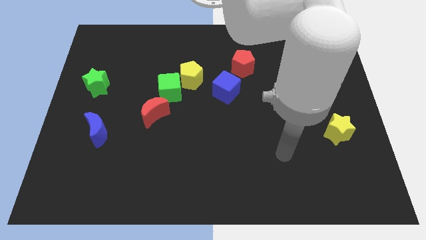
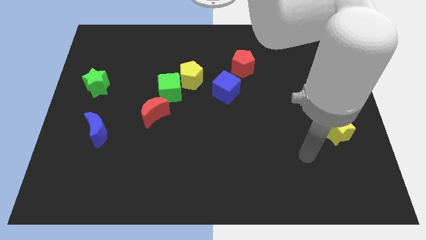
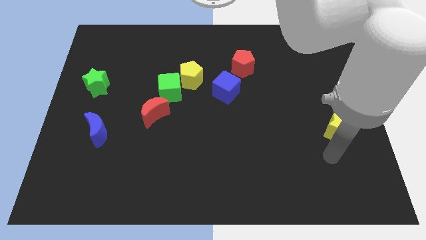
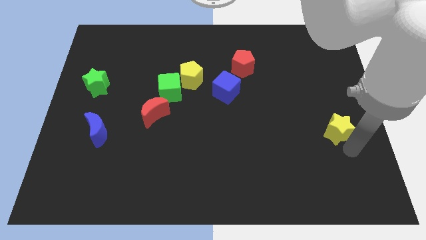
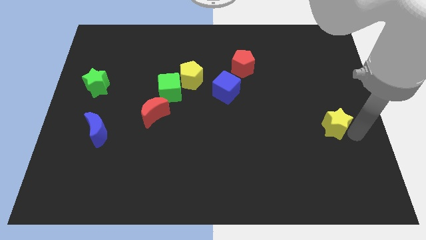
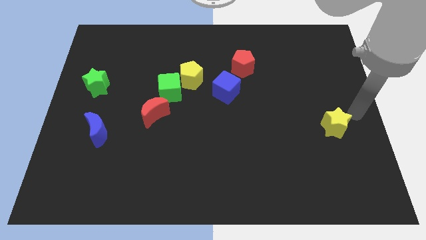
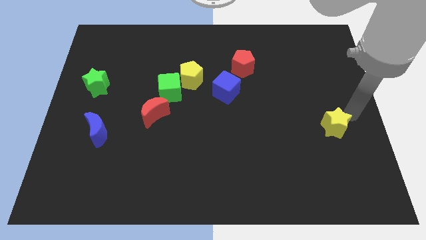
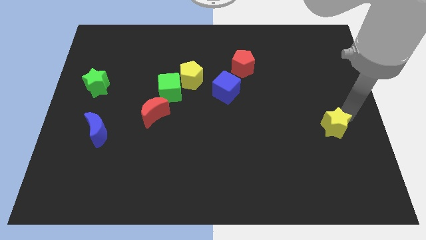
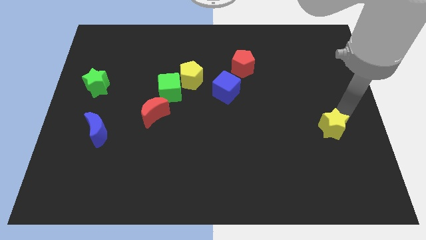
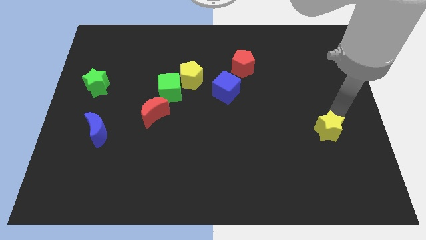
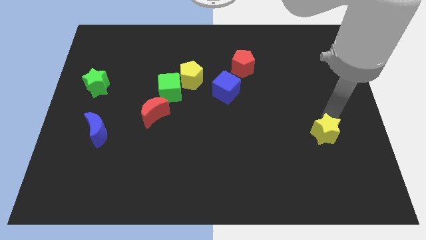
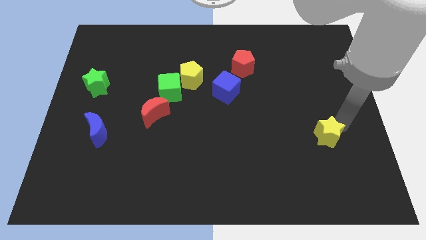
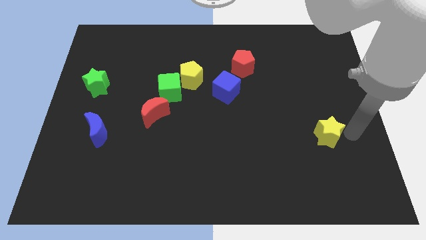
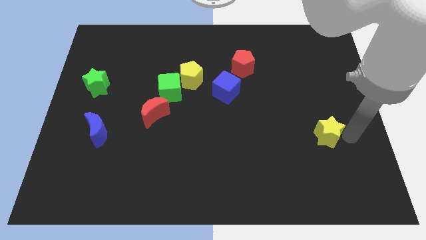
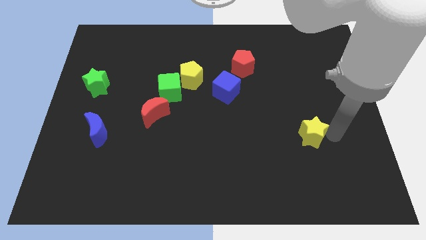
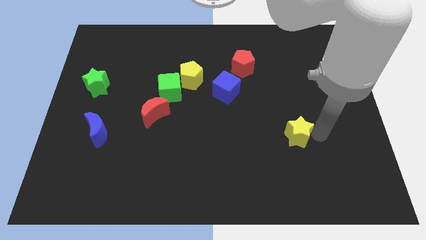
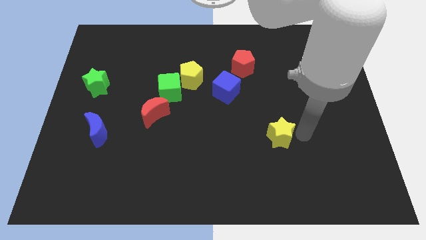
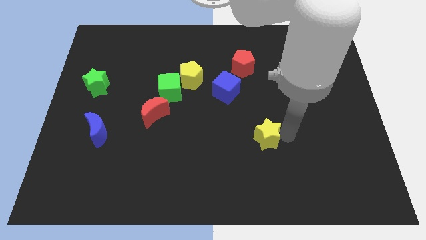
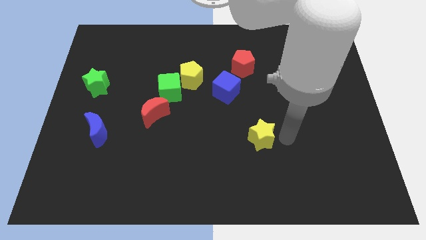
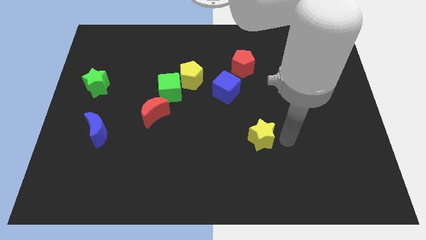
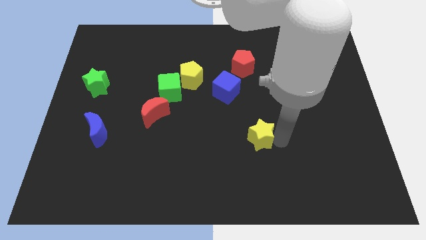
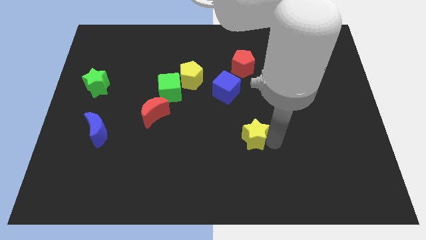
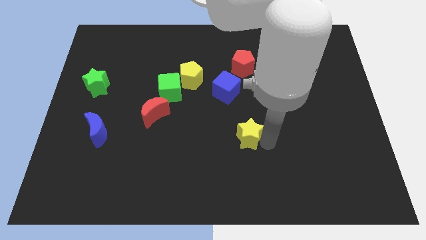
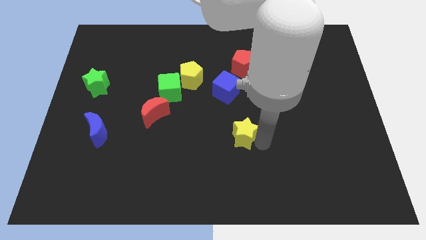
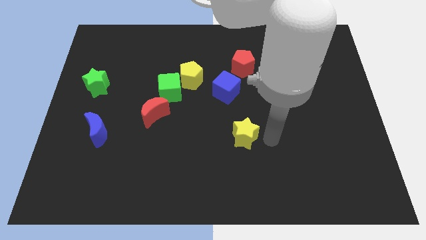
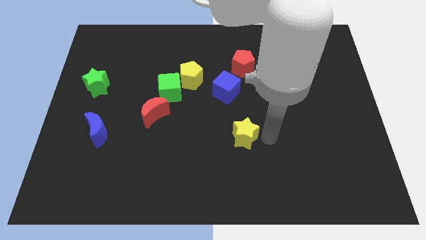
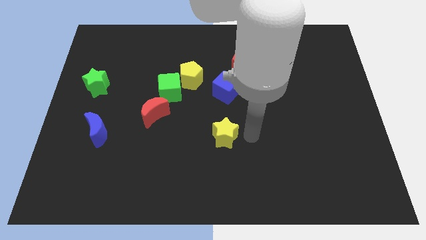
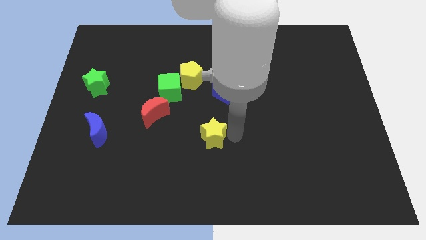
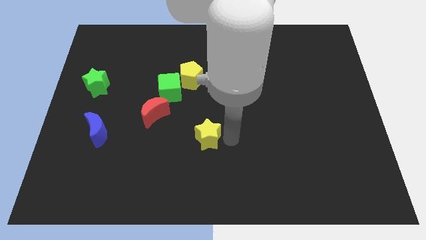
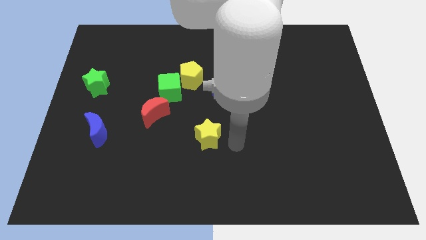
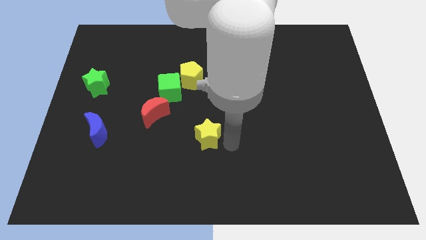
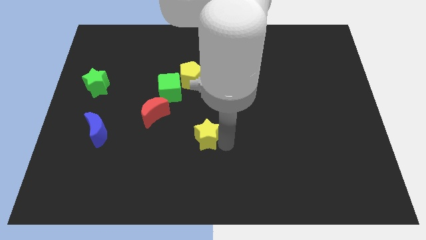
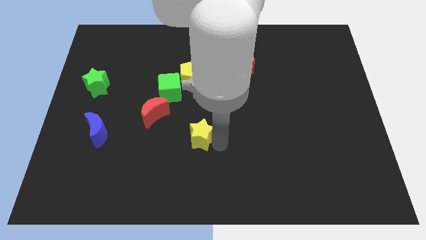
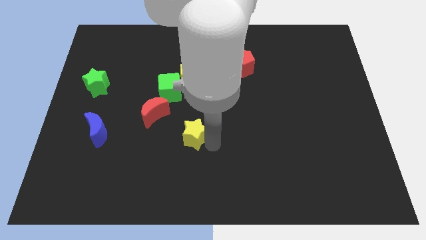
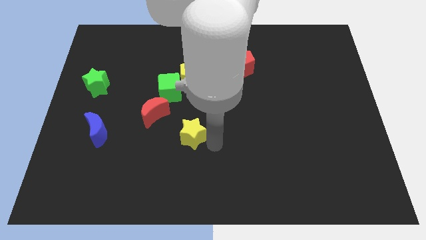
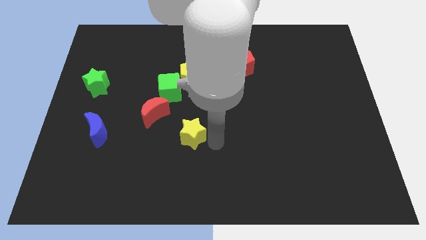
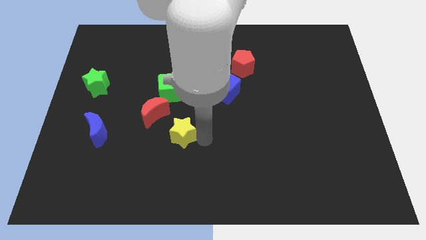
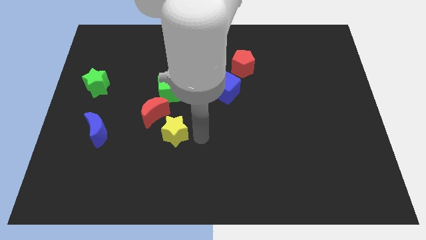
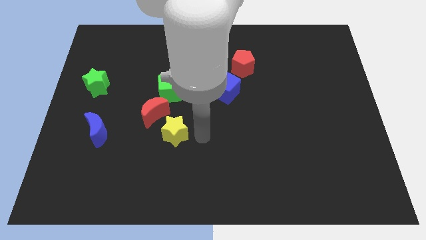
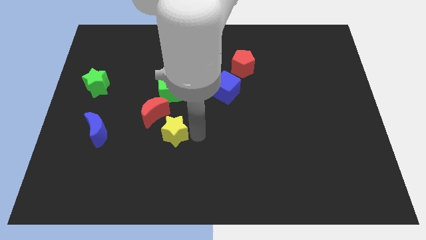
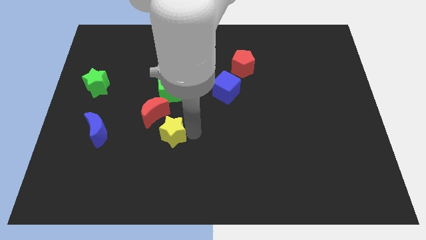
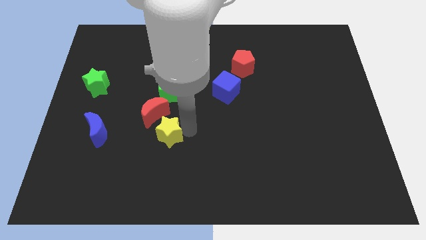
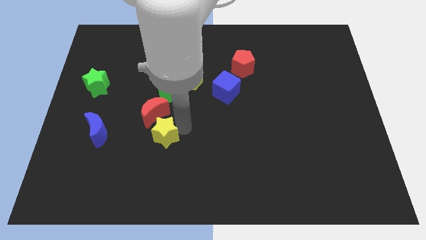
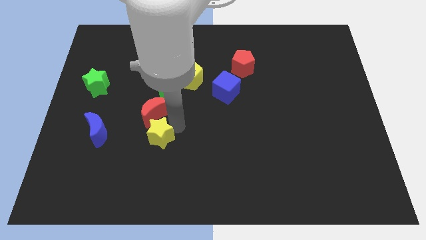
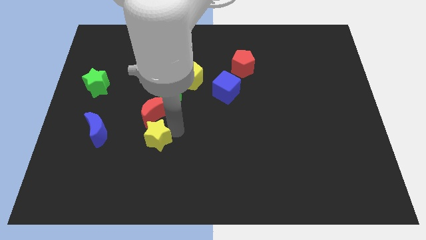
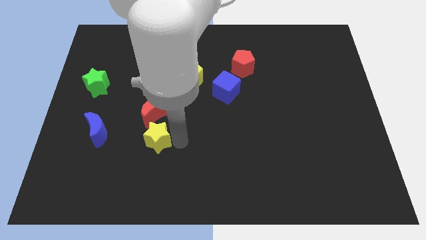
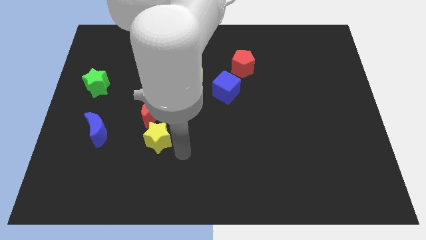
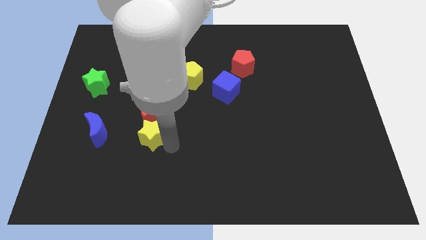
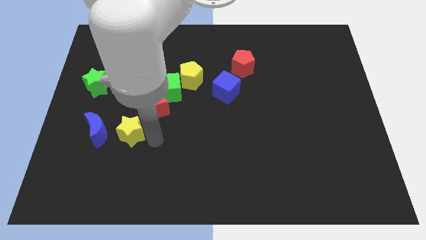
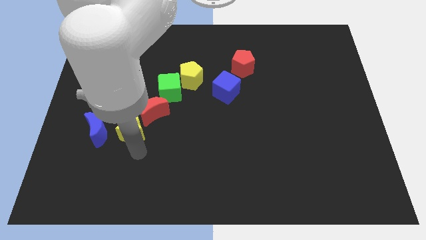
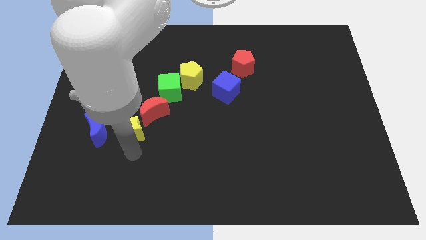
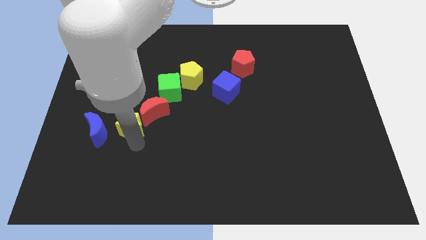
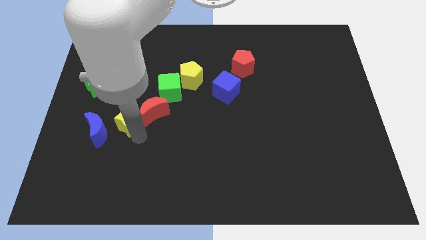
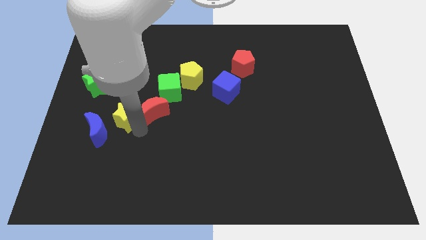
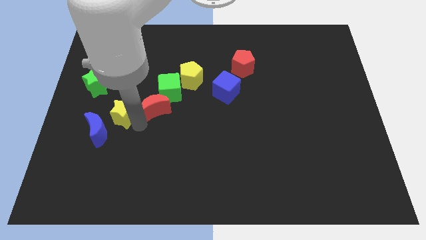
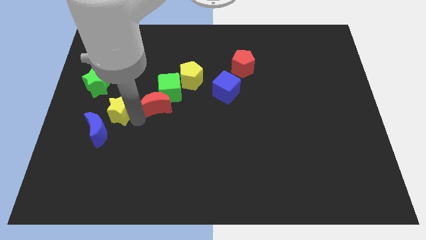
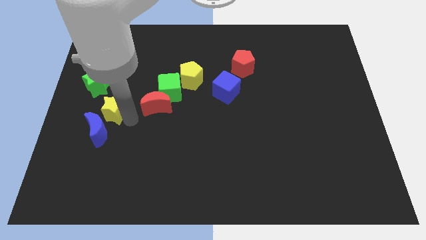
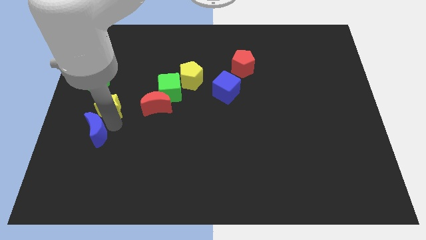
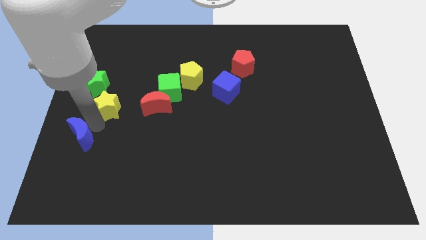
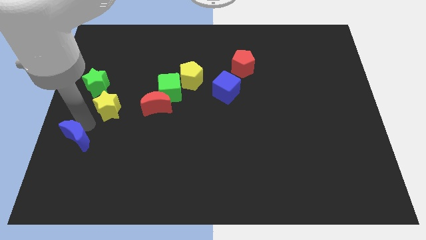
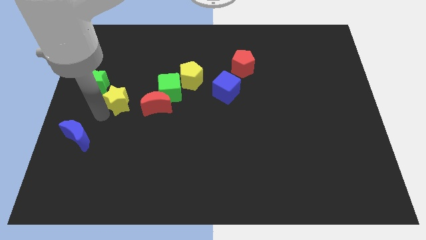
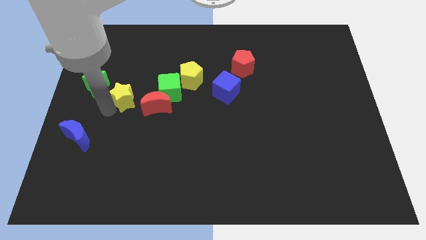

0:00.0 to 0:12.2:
put the yellow star to the top left of the red moon

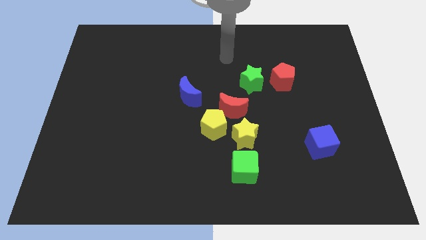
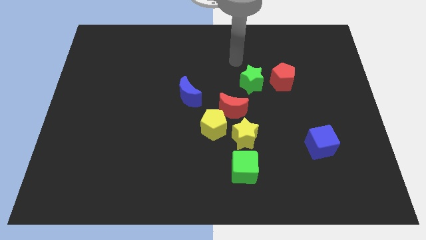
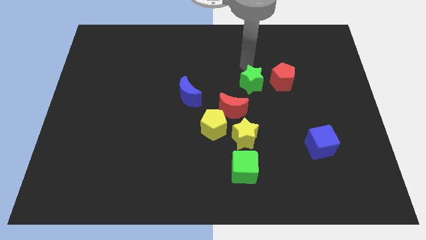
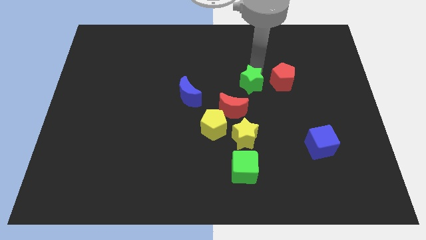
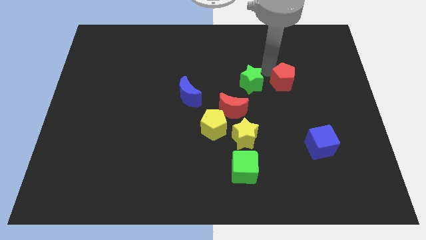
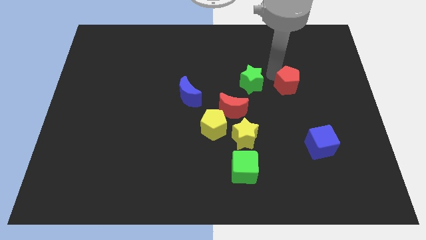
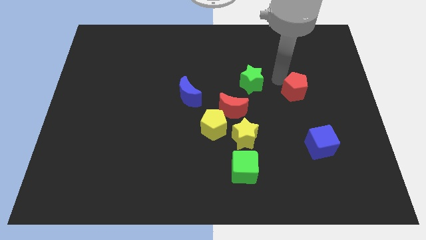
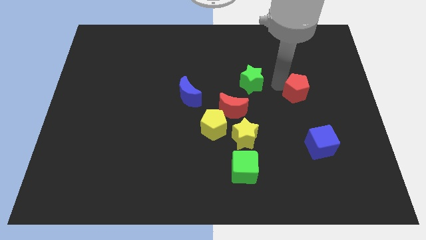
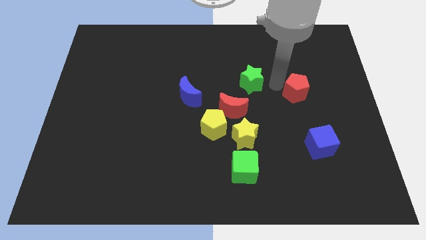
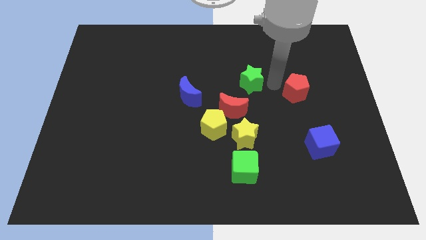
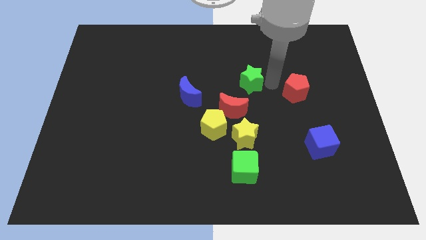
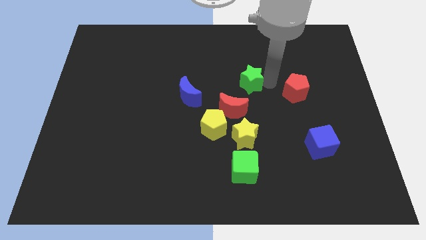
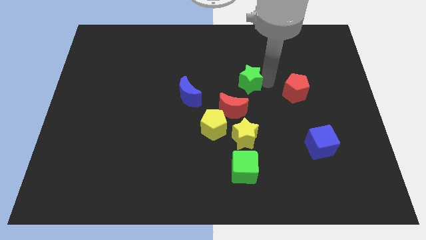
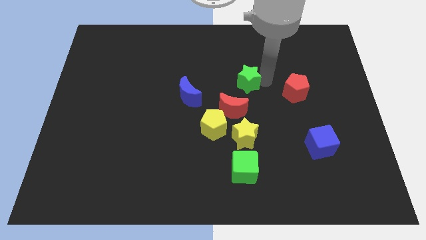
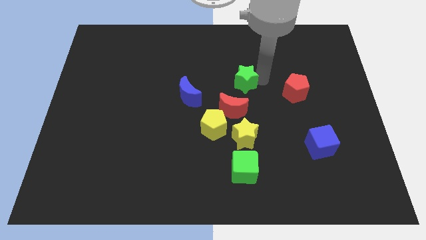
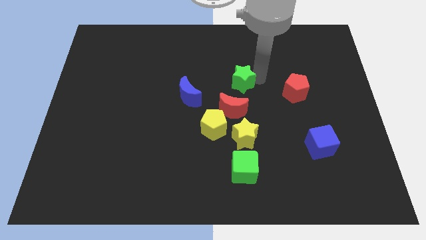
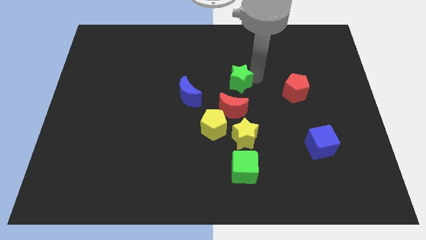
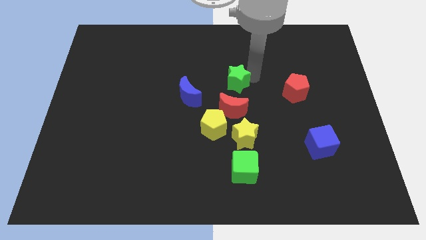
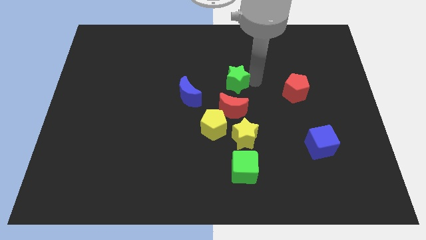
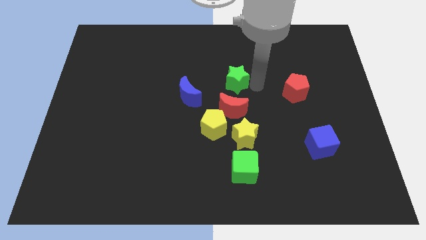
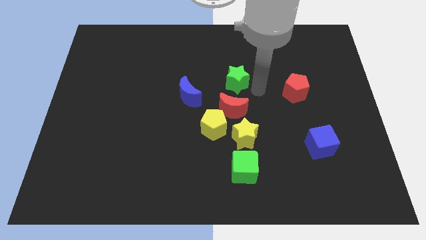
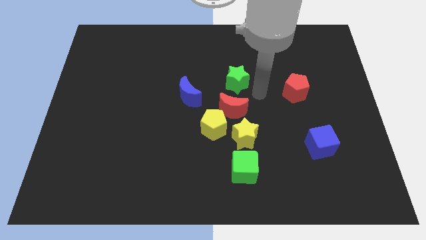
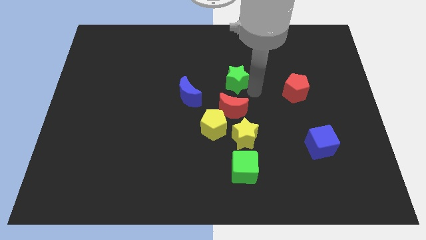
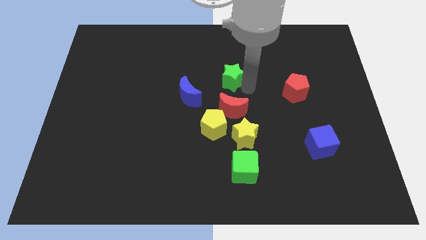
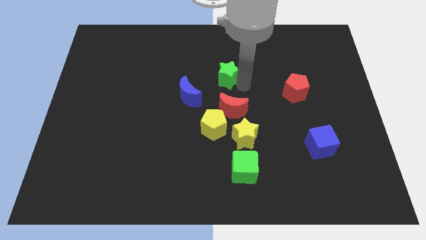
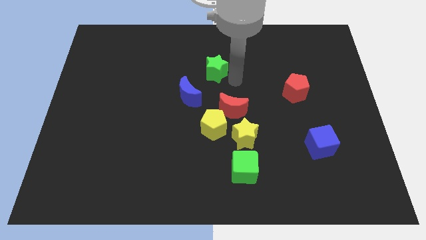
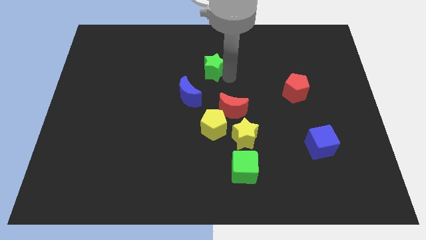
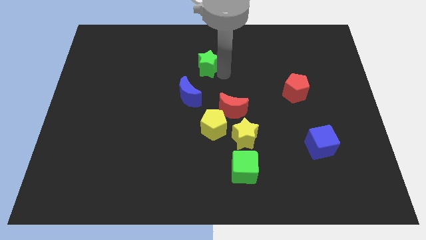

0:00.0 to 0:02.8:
move the green star to the top of the blue moon
